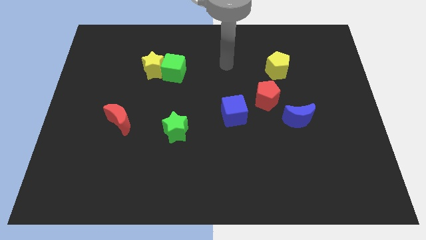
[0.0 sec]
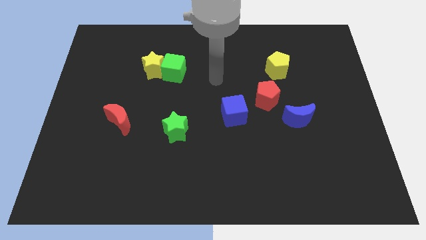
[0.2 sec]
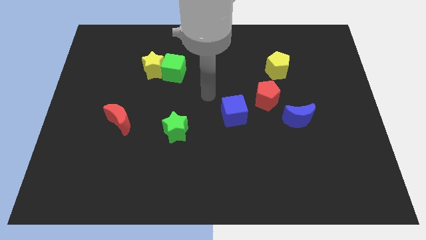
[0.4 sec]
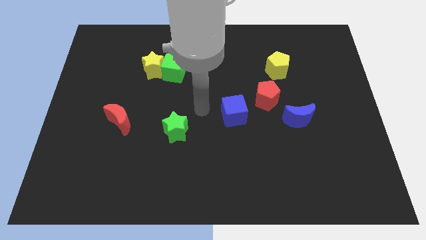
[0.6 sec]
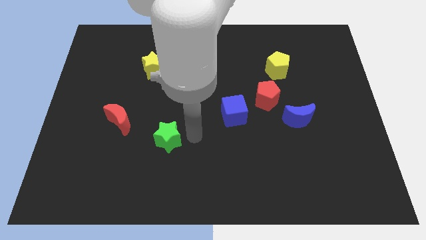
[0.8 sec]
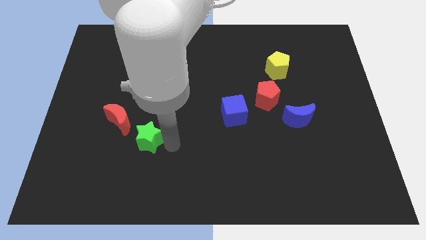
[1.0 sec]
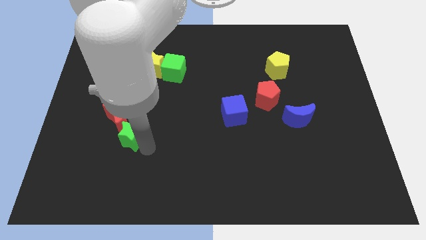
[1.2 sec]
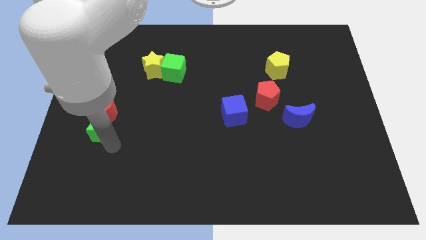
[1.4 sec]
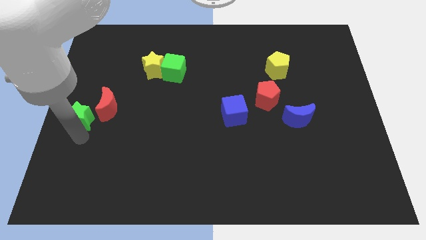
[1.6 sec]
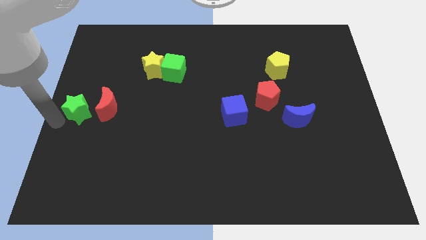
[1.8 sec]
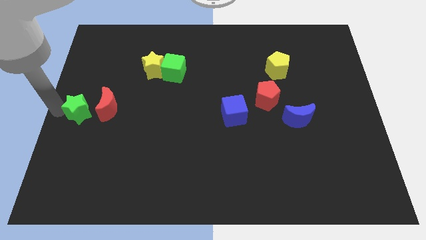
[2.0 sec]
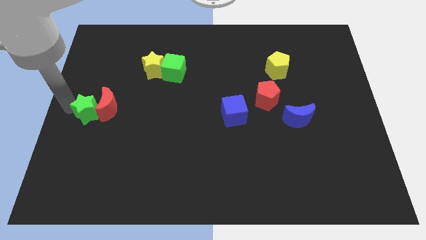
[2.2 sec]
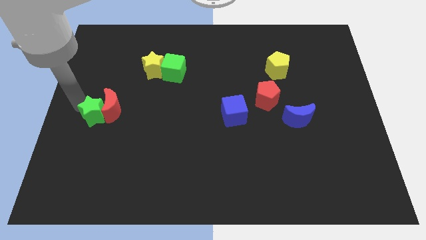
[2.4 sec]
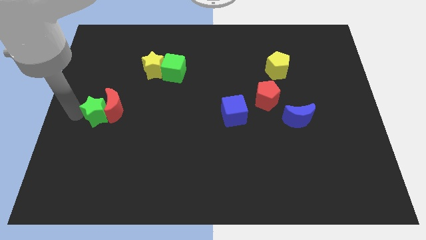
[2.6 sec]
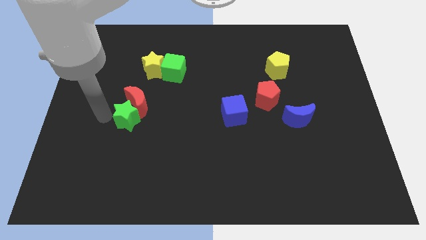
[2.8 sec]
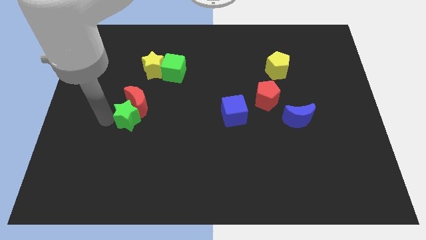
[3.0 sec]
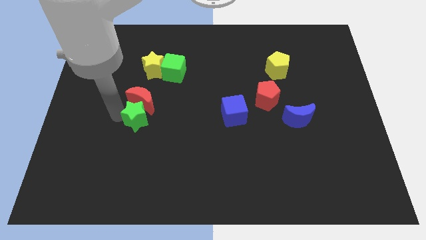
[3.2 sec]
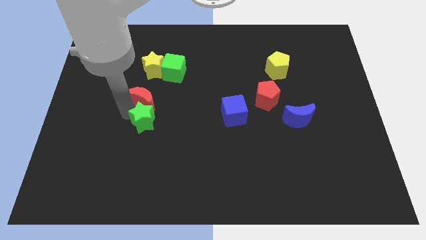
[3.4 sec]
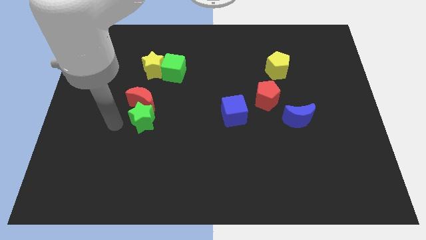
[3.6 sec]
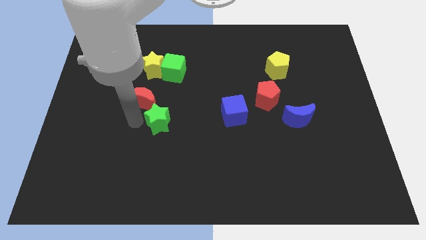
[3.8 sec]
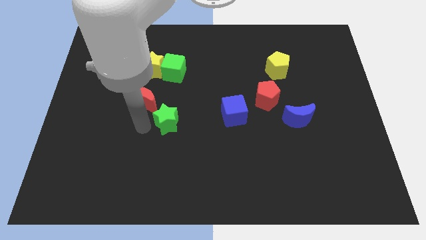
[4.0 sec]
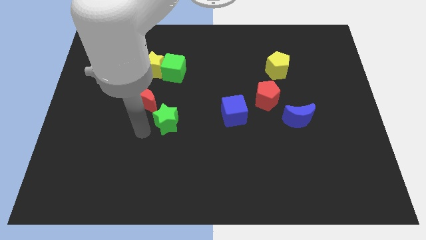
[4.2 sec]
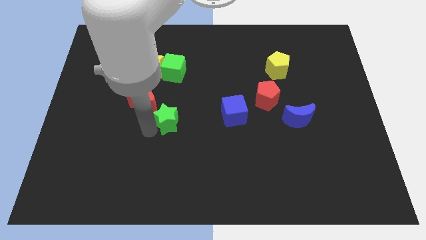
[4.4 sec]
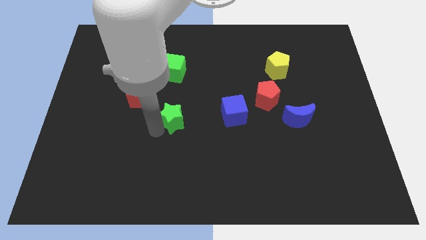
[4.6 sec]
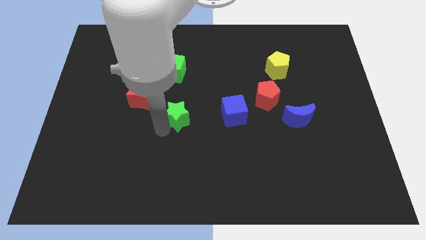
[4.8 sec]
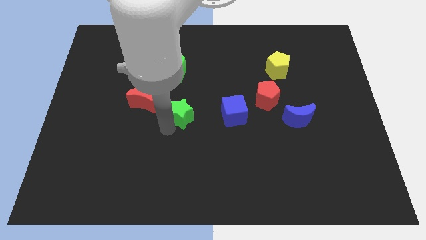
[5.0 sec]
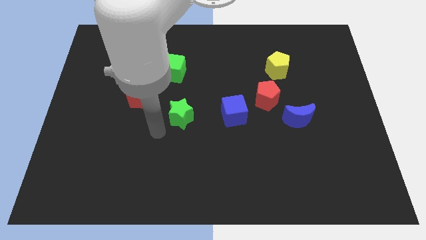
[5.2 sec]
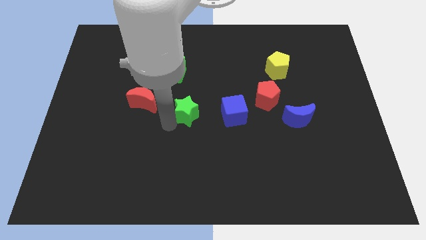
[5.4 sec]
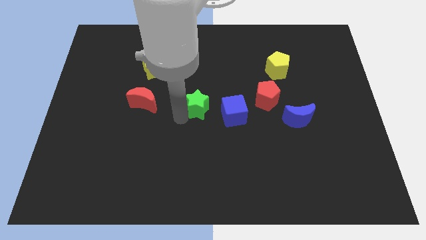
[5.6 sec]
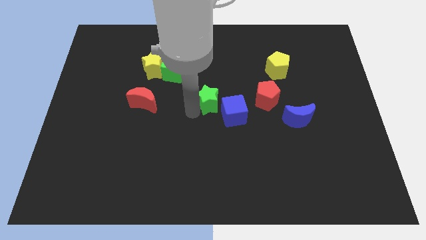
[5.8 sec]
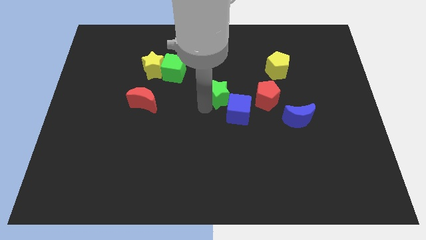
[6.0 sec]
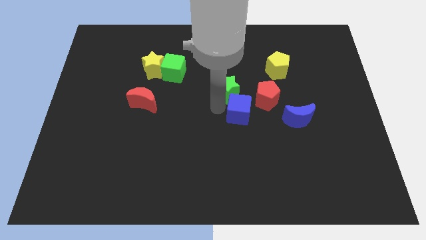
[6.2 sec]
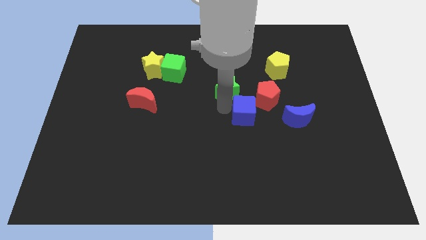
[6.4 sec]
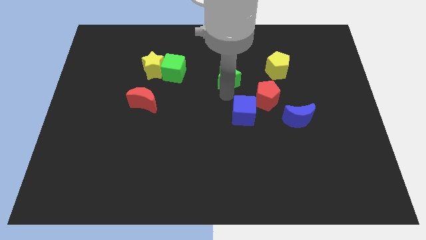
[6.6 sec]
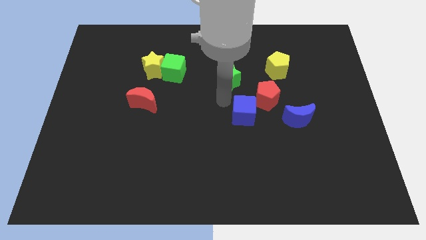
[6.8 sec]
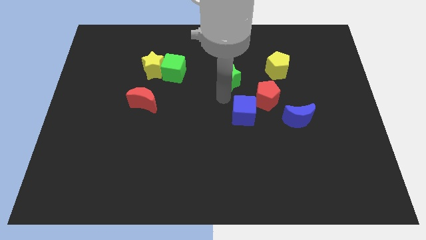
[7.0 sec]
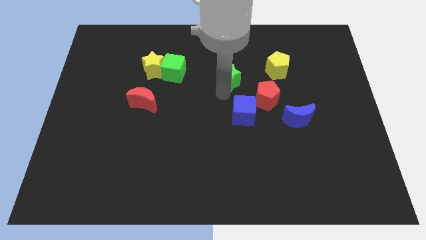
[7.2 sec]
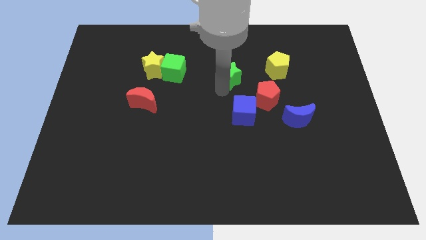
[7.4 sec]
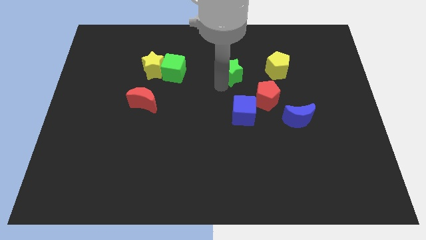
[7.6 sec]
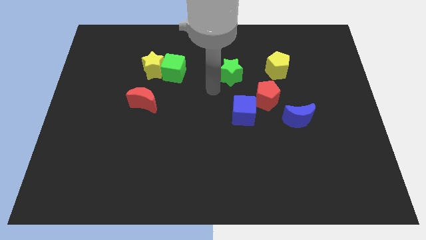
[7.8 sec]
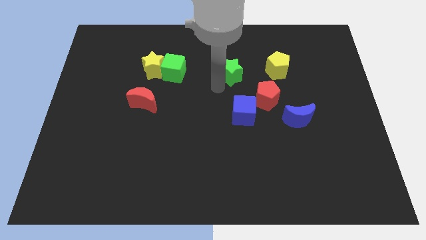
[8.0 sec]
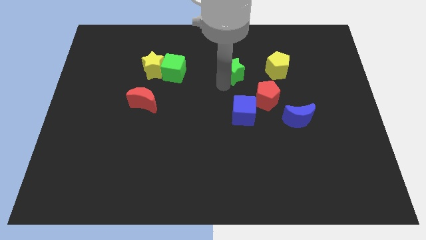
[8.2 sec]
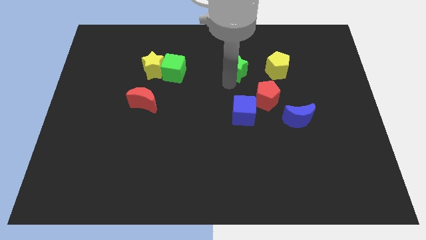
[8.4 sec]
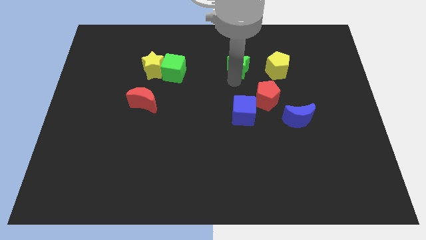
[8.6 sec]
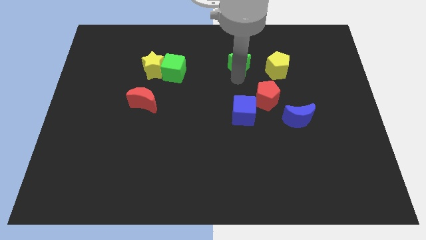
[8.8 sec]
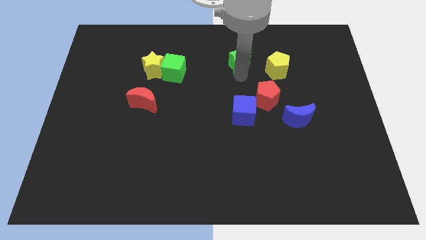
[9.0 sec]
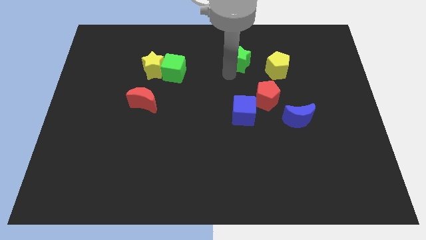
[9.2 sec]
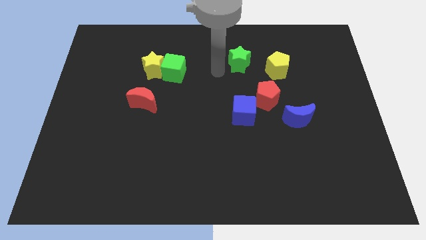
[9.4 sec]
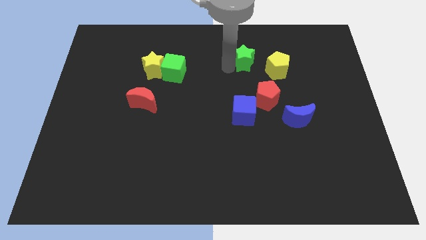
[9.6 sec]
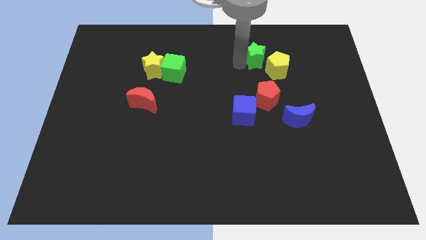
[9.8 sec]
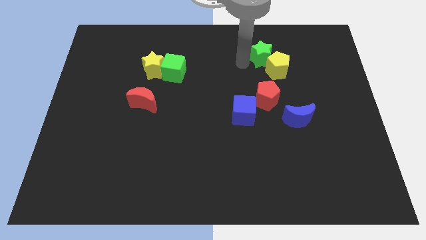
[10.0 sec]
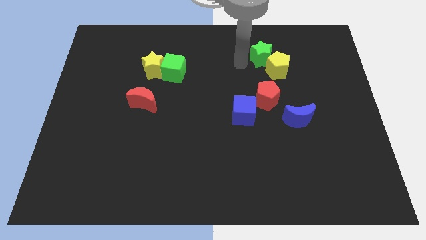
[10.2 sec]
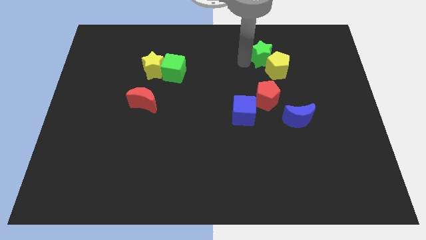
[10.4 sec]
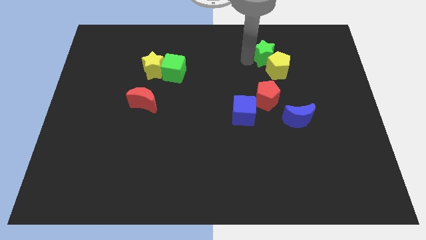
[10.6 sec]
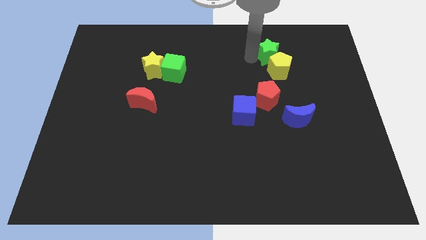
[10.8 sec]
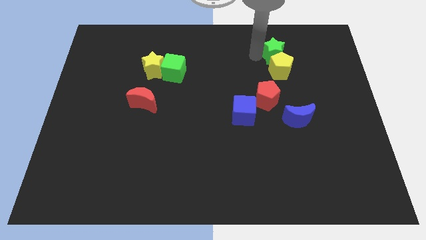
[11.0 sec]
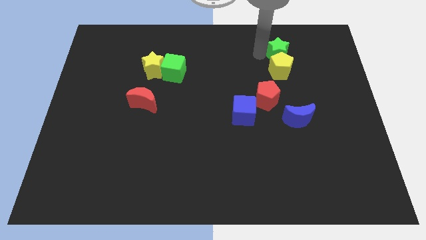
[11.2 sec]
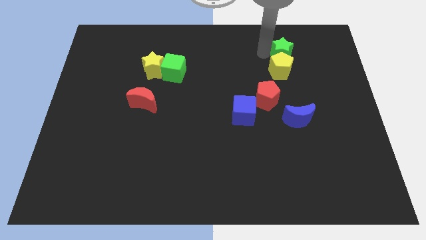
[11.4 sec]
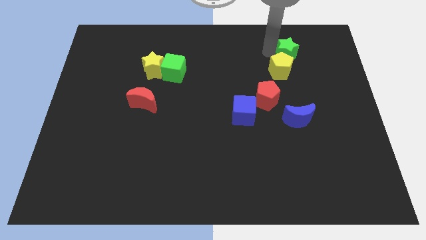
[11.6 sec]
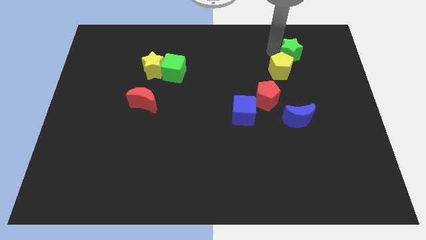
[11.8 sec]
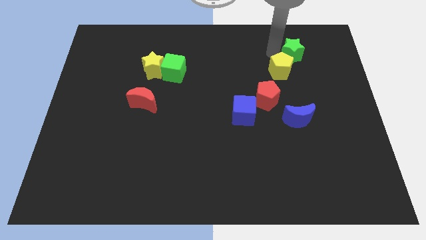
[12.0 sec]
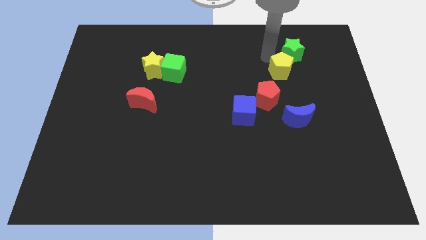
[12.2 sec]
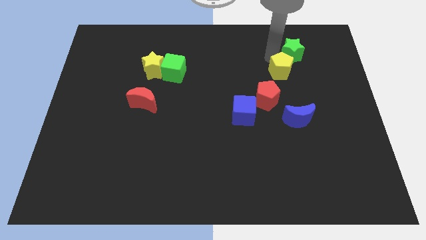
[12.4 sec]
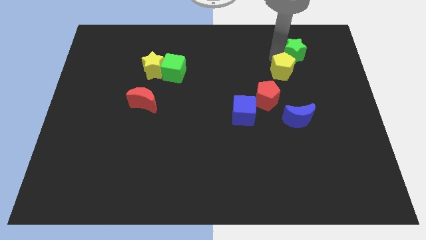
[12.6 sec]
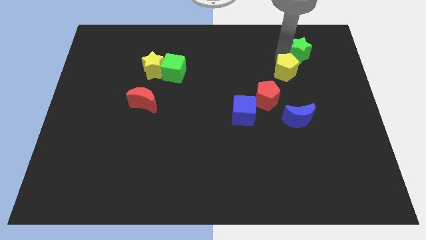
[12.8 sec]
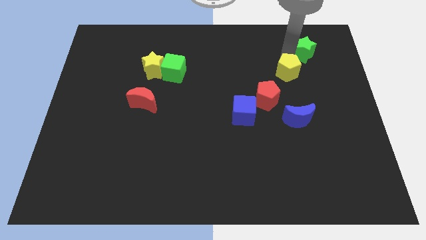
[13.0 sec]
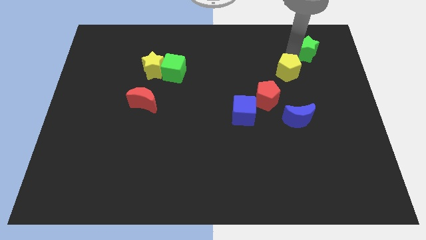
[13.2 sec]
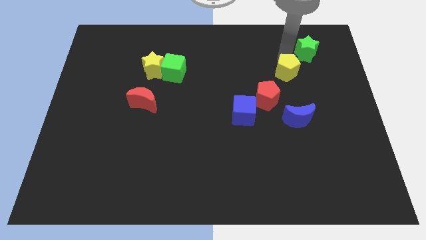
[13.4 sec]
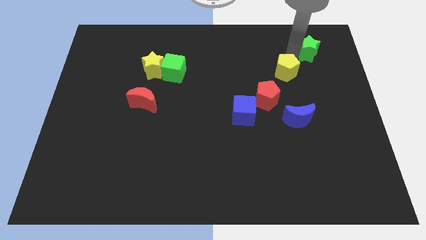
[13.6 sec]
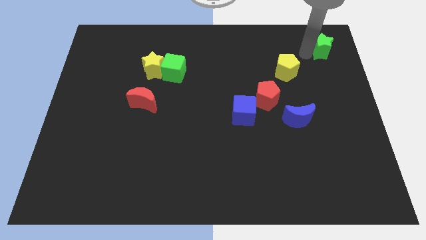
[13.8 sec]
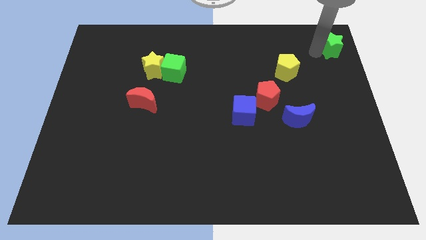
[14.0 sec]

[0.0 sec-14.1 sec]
move the green star to the top right
